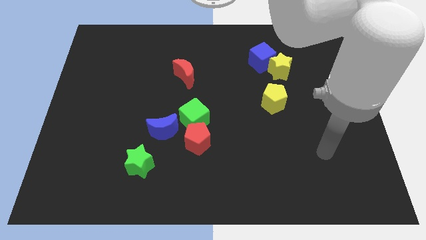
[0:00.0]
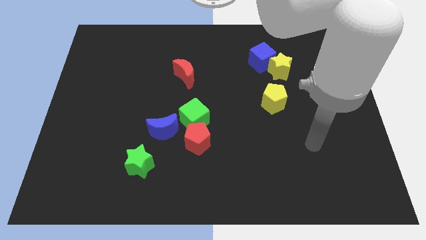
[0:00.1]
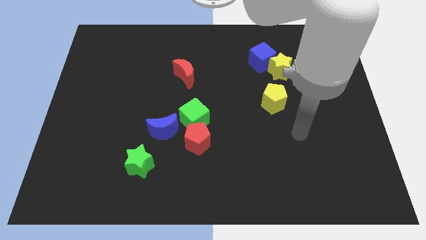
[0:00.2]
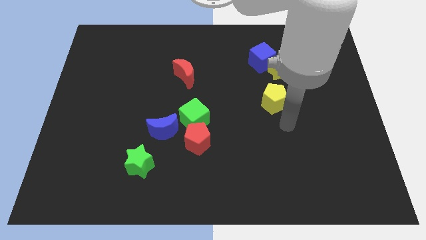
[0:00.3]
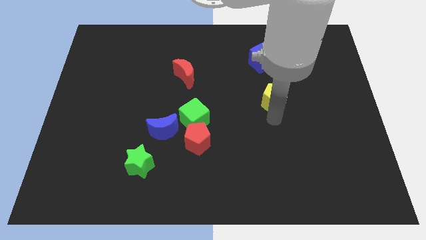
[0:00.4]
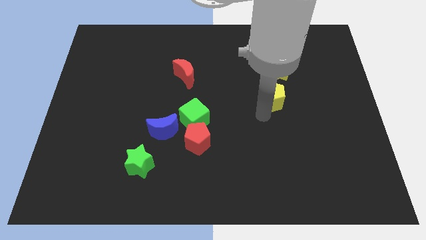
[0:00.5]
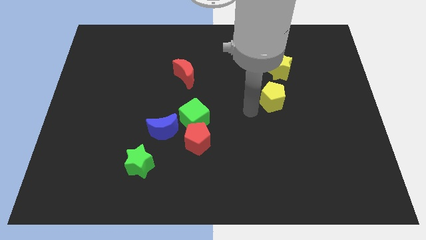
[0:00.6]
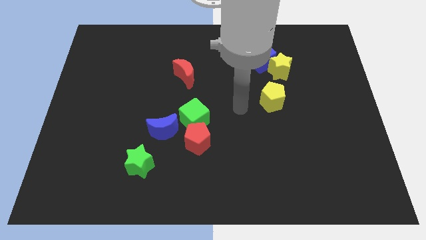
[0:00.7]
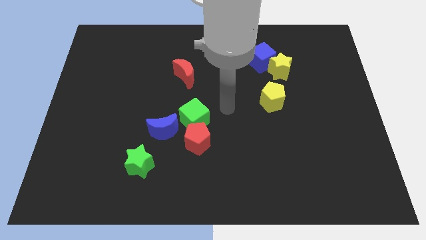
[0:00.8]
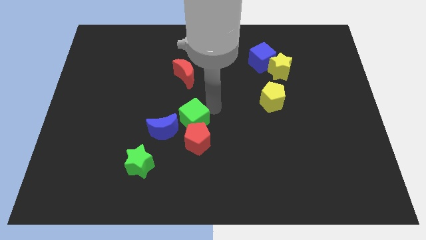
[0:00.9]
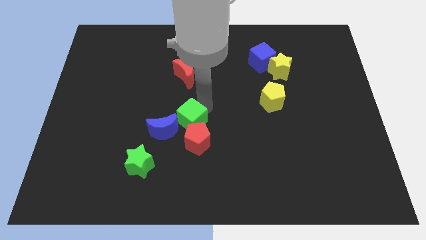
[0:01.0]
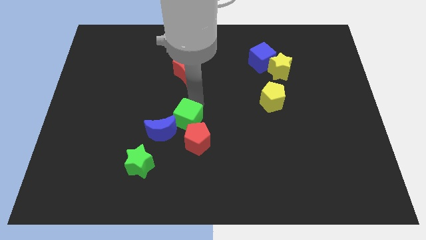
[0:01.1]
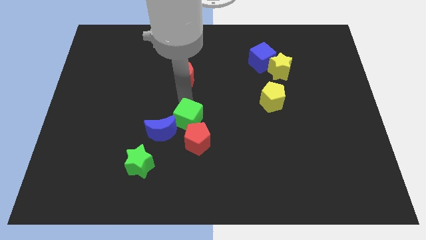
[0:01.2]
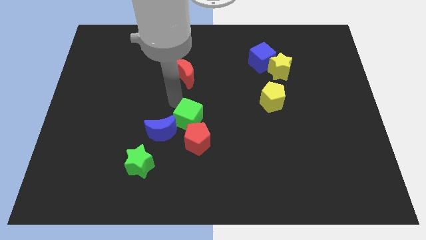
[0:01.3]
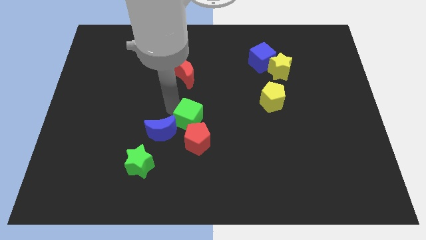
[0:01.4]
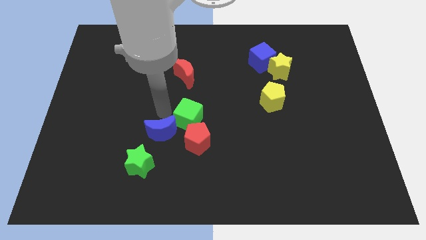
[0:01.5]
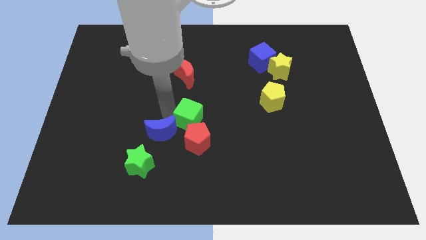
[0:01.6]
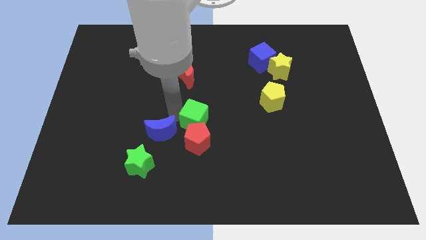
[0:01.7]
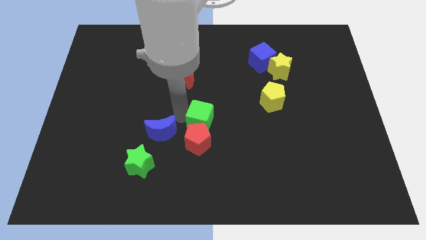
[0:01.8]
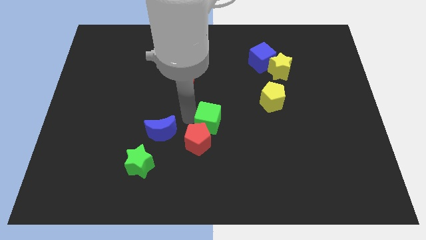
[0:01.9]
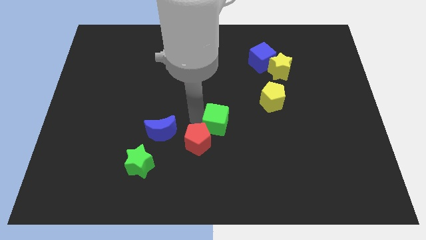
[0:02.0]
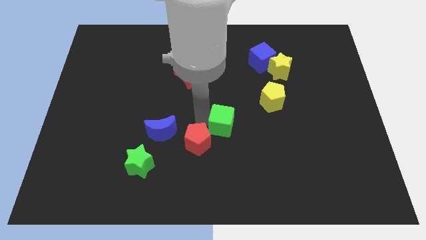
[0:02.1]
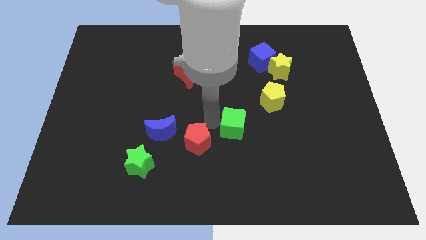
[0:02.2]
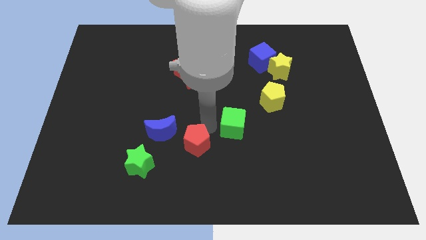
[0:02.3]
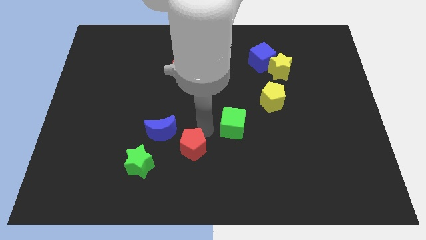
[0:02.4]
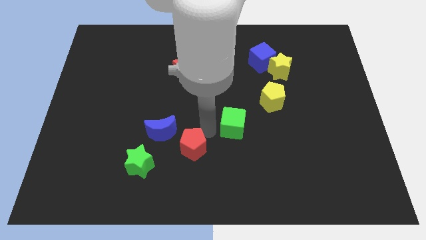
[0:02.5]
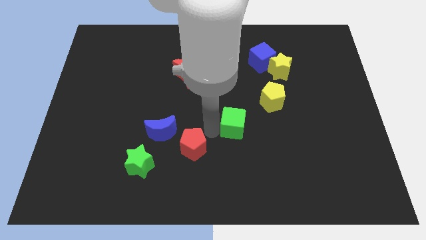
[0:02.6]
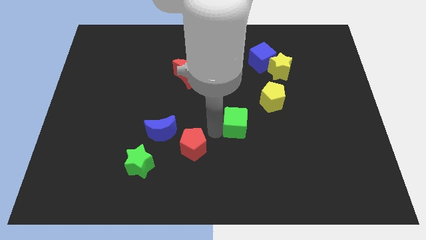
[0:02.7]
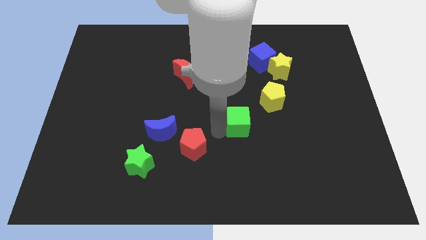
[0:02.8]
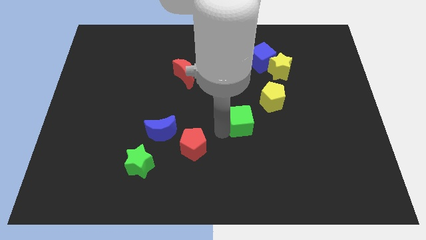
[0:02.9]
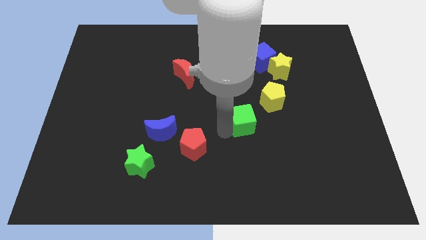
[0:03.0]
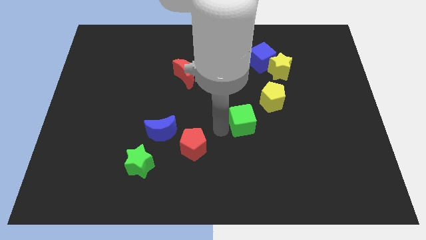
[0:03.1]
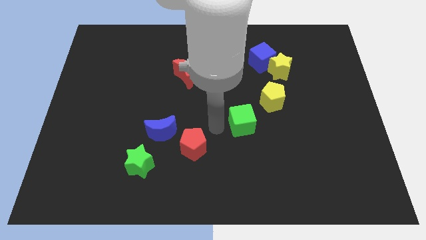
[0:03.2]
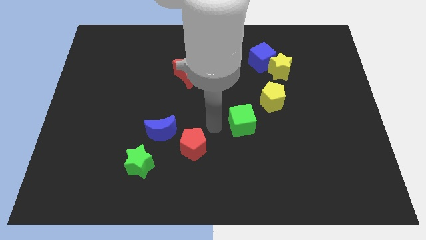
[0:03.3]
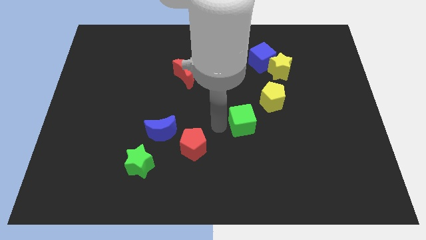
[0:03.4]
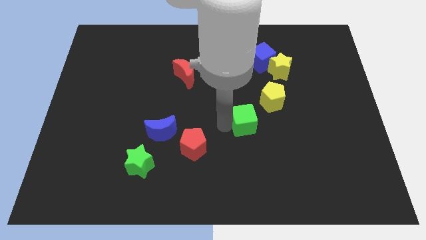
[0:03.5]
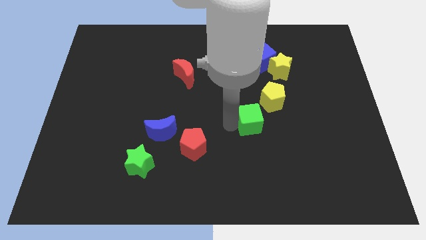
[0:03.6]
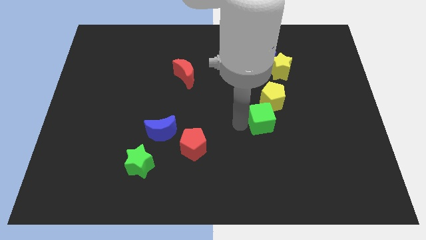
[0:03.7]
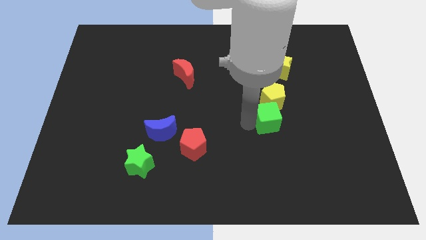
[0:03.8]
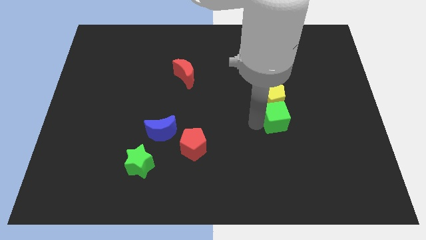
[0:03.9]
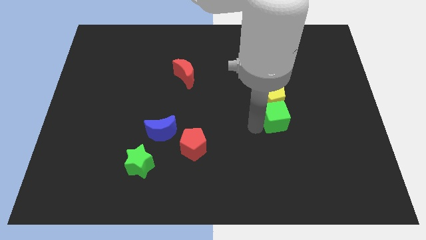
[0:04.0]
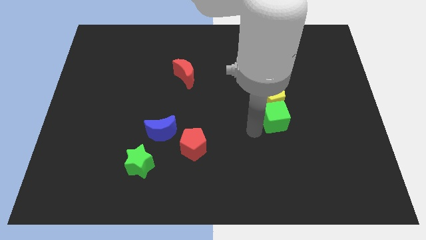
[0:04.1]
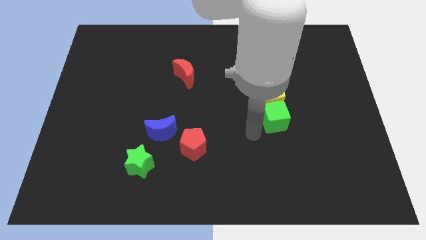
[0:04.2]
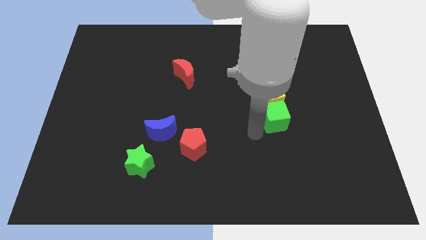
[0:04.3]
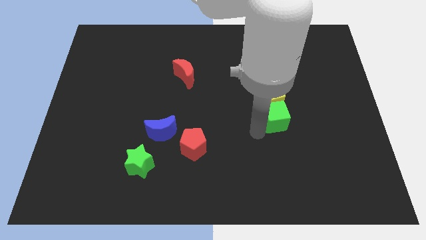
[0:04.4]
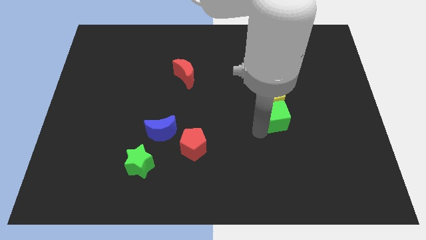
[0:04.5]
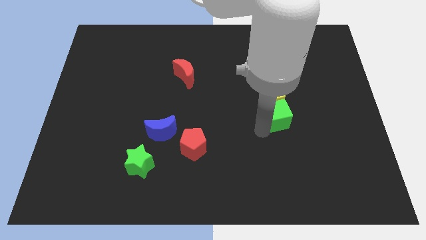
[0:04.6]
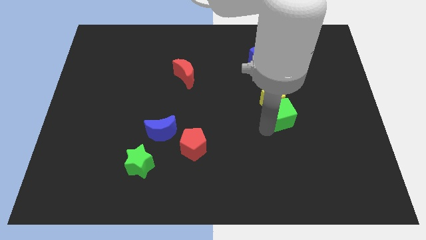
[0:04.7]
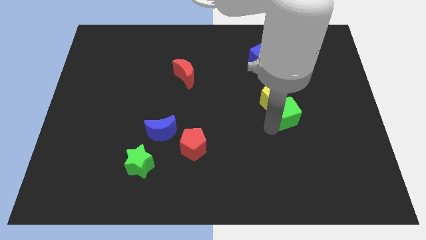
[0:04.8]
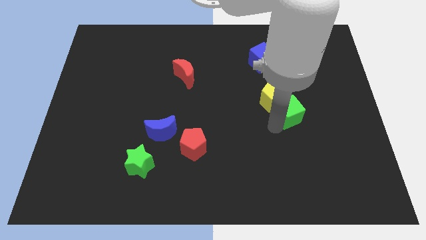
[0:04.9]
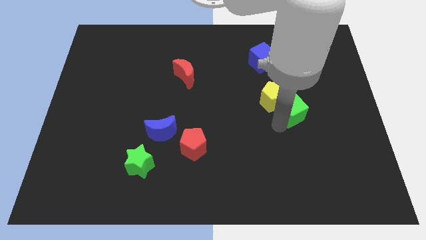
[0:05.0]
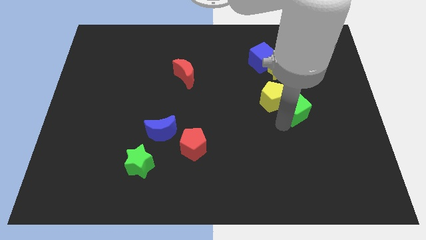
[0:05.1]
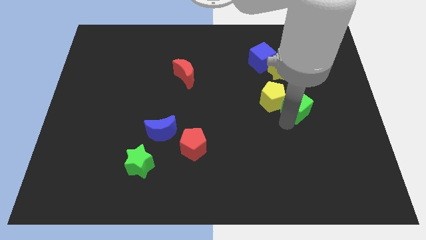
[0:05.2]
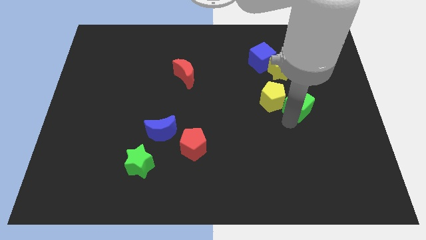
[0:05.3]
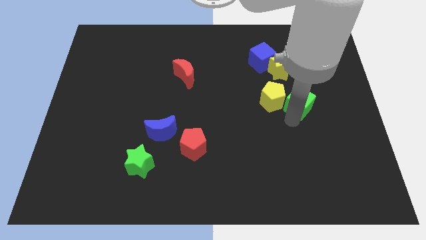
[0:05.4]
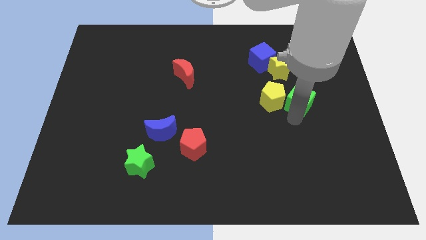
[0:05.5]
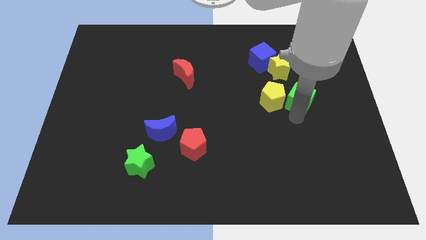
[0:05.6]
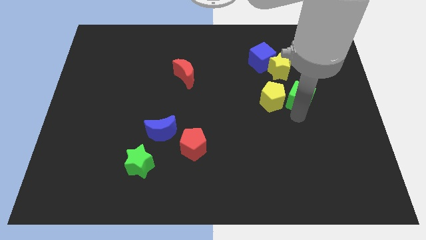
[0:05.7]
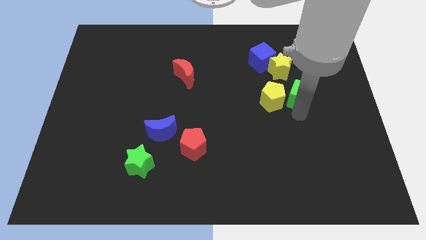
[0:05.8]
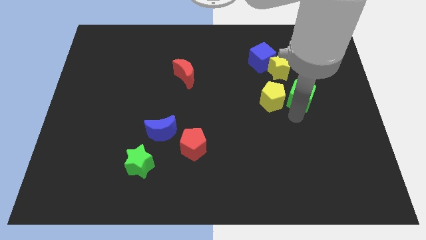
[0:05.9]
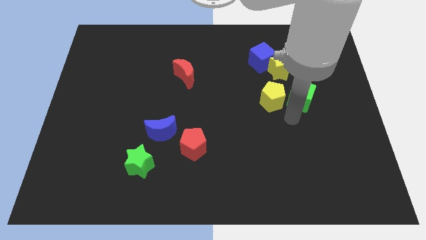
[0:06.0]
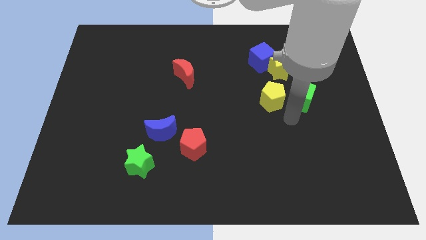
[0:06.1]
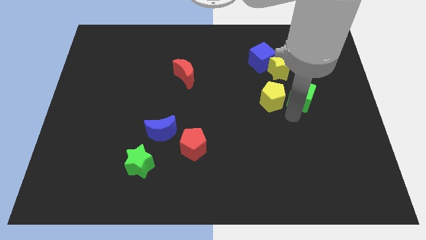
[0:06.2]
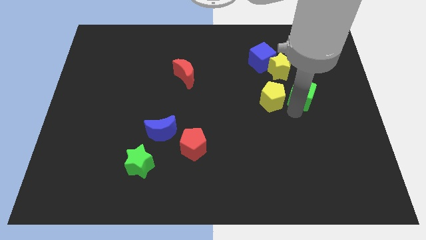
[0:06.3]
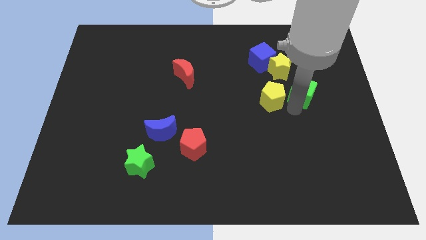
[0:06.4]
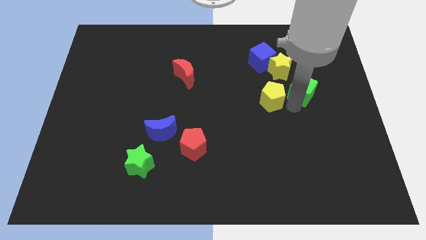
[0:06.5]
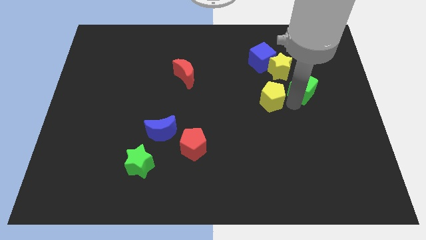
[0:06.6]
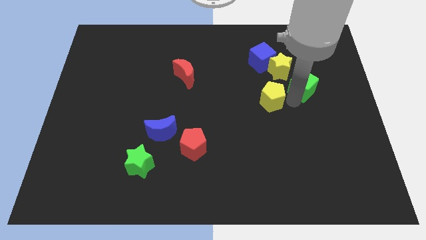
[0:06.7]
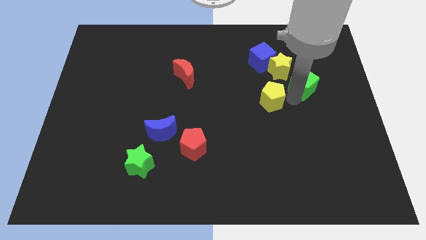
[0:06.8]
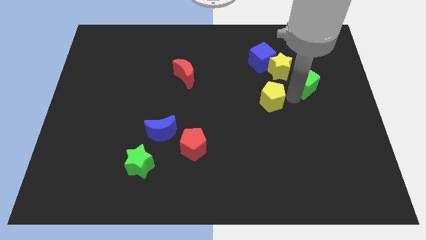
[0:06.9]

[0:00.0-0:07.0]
slide the green cube to the right of the yellow star
